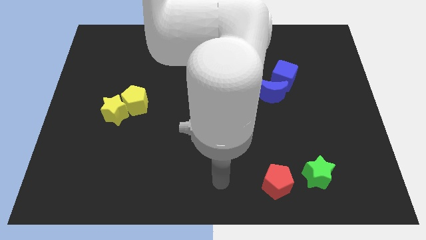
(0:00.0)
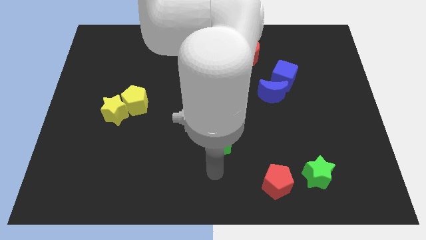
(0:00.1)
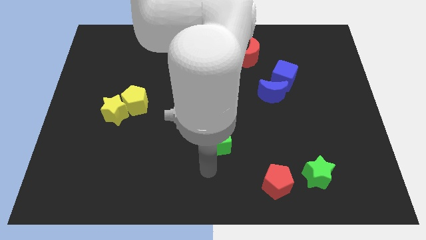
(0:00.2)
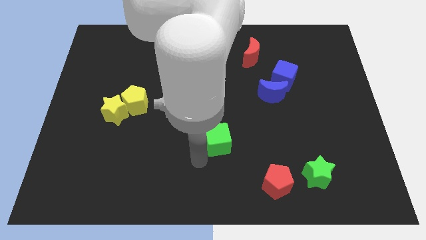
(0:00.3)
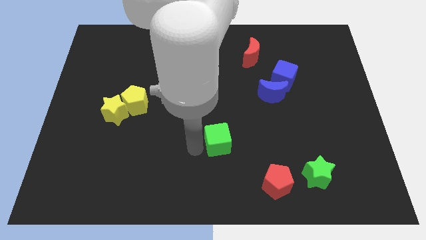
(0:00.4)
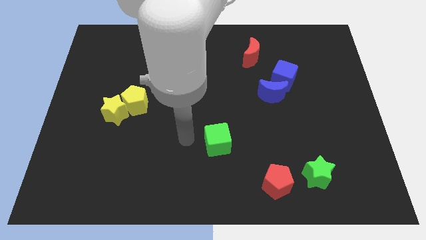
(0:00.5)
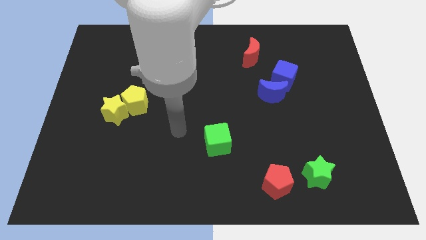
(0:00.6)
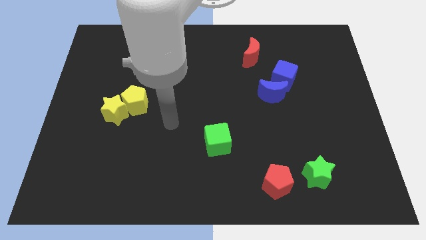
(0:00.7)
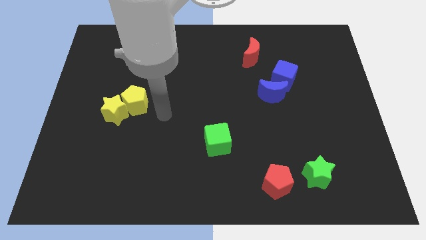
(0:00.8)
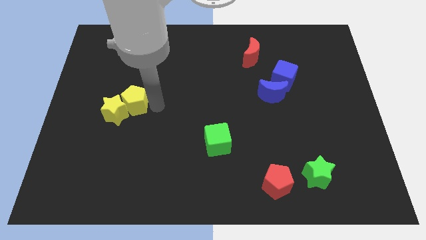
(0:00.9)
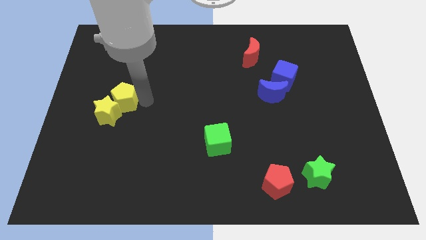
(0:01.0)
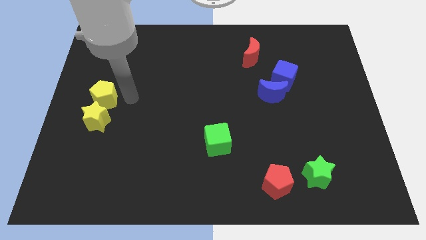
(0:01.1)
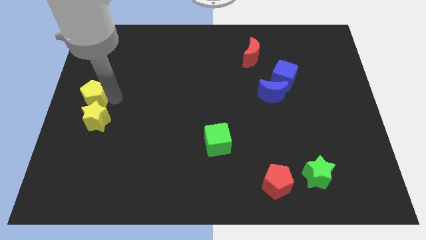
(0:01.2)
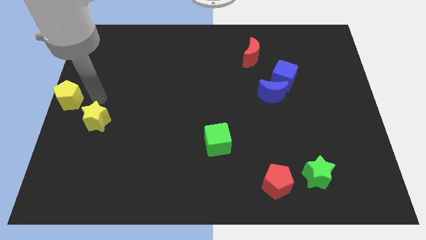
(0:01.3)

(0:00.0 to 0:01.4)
separate the yellow star from the yellow pentagon

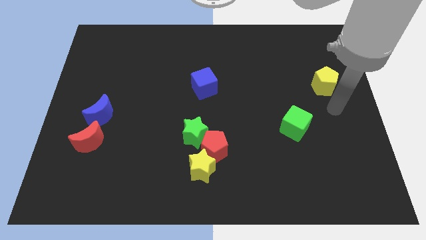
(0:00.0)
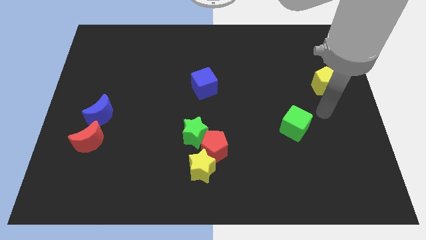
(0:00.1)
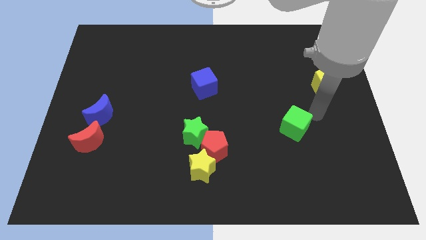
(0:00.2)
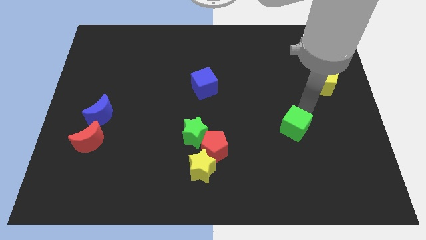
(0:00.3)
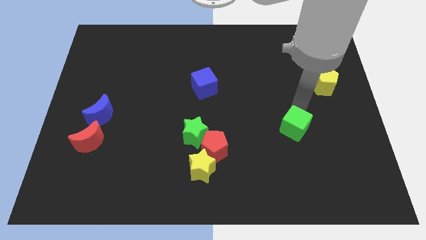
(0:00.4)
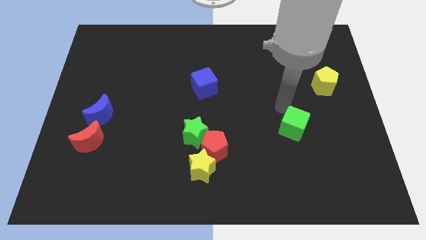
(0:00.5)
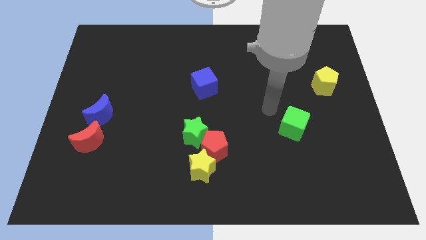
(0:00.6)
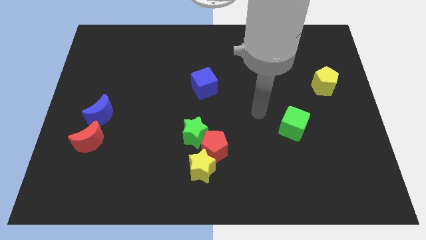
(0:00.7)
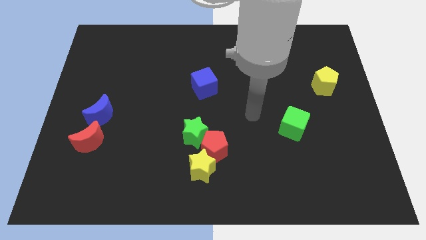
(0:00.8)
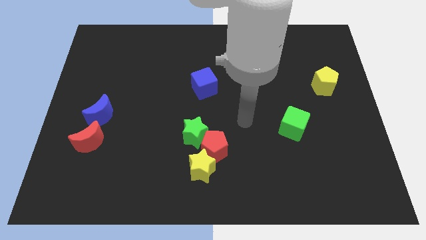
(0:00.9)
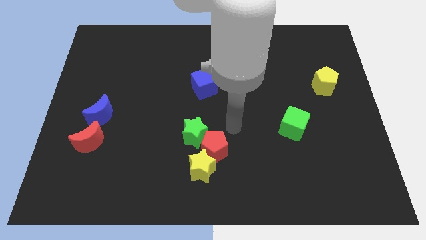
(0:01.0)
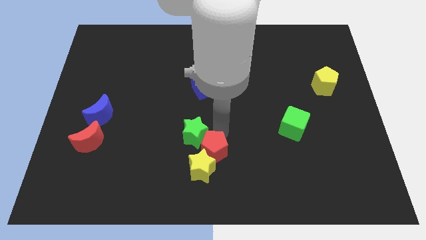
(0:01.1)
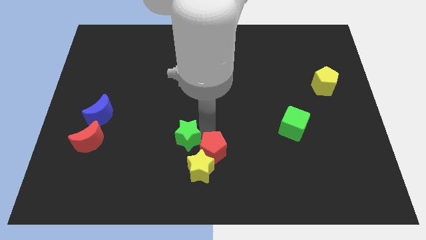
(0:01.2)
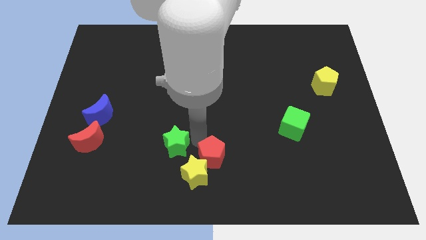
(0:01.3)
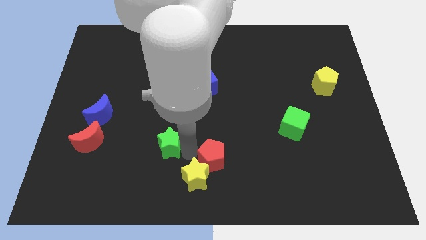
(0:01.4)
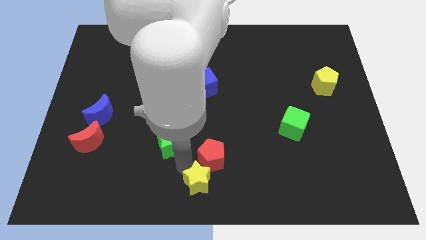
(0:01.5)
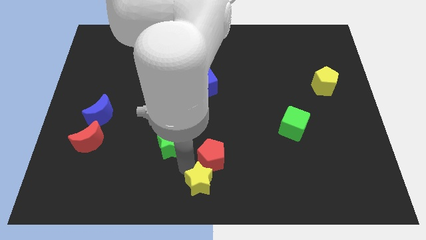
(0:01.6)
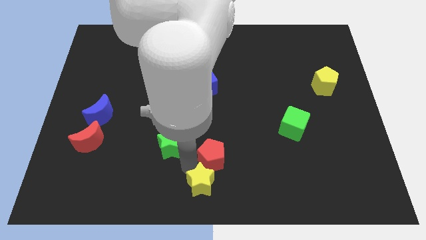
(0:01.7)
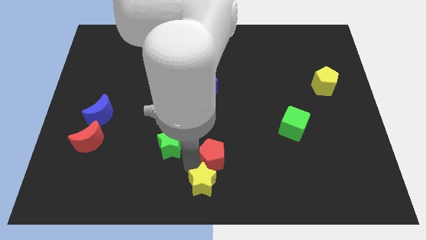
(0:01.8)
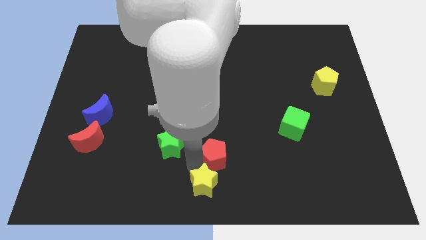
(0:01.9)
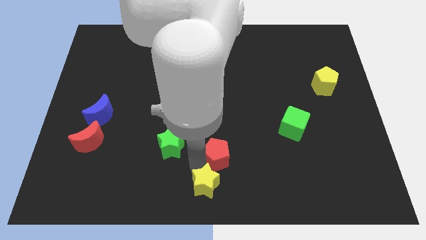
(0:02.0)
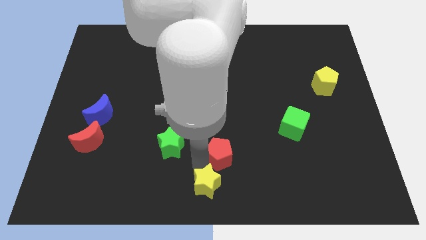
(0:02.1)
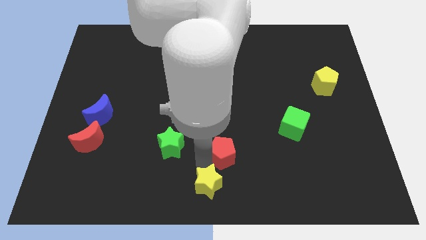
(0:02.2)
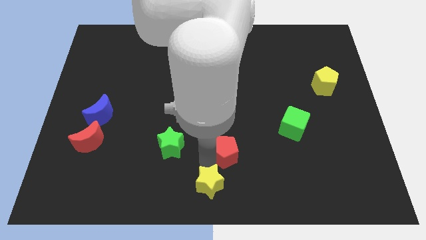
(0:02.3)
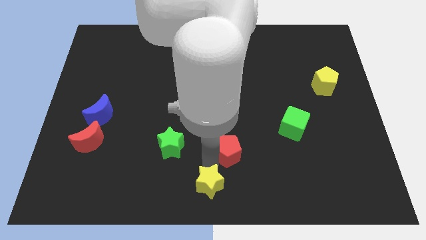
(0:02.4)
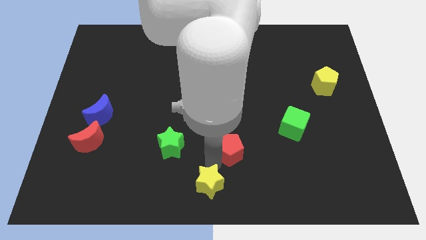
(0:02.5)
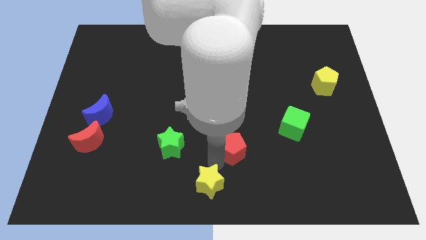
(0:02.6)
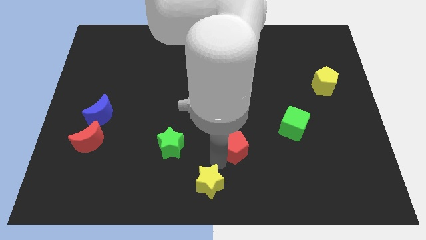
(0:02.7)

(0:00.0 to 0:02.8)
pull the red pentagon apart from the yellow star and green star

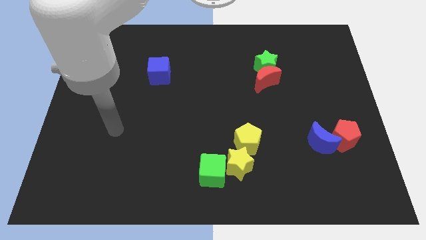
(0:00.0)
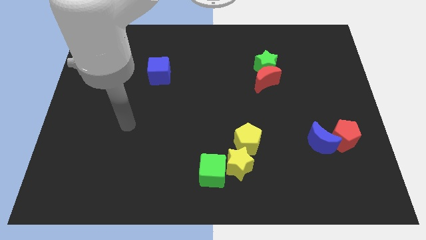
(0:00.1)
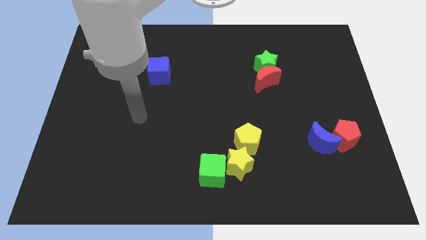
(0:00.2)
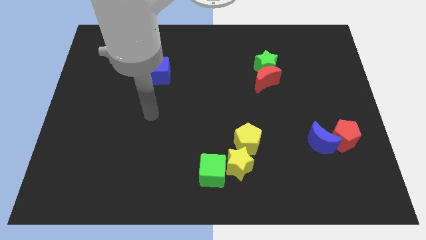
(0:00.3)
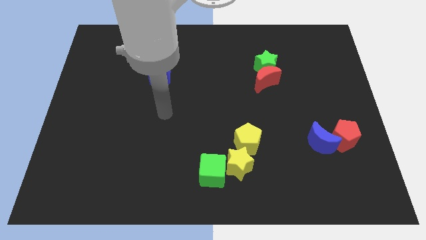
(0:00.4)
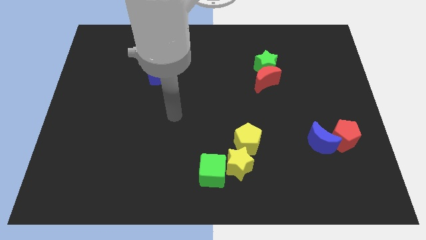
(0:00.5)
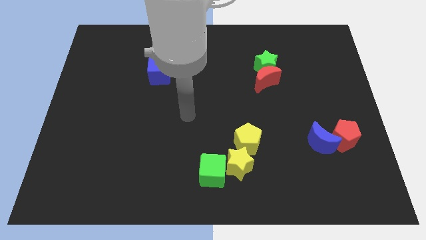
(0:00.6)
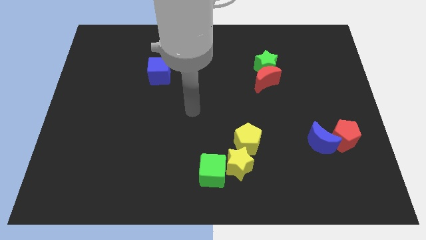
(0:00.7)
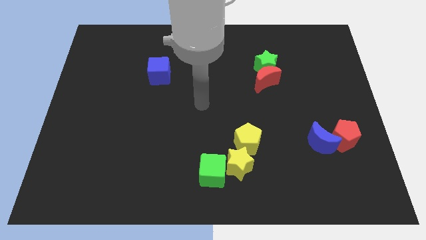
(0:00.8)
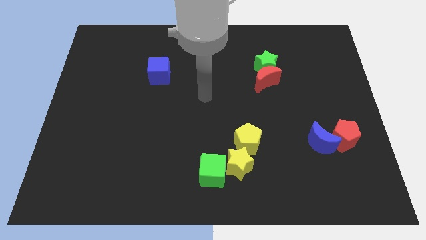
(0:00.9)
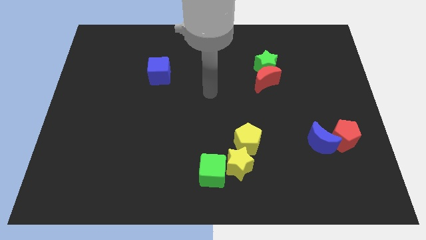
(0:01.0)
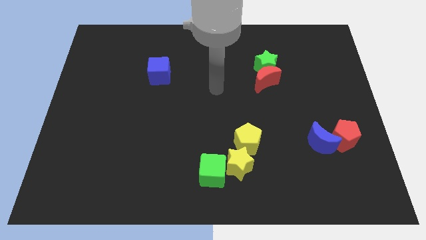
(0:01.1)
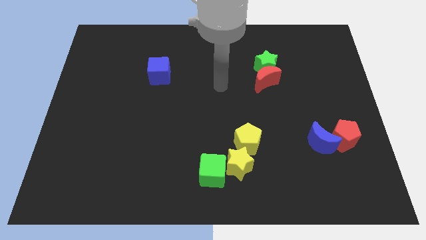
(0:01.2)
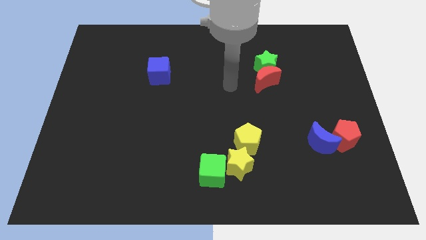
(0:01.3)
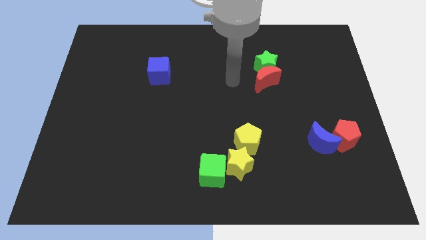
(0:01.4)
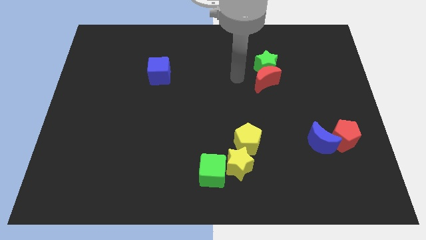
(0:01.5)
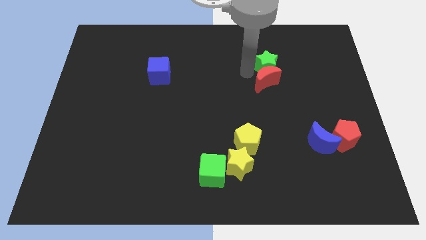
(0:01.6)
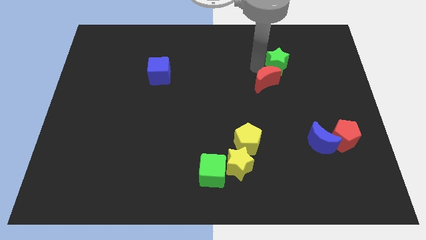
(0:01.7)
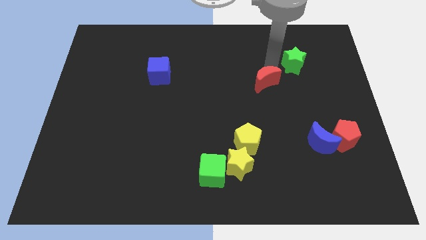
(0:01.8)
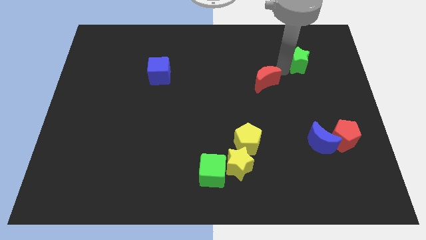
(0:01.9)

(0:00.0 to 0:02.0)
pull the red moon apart from the green star

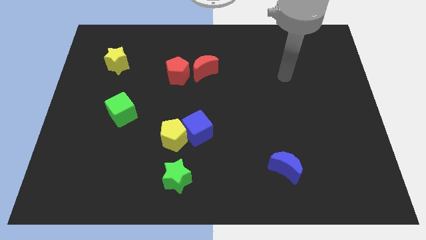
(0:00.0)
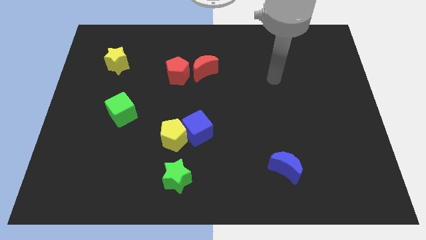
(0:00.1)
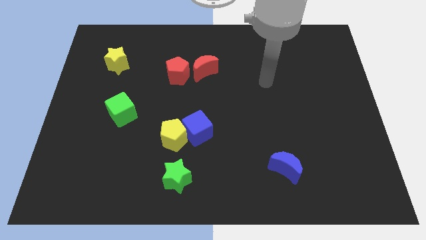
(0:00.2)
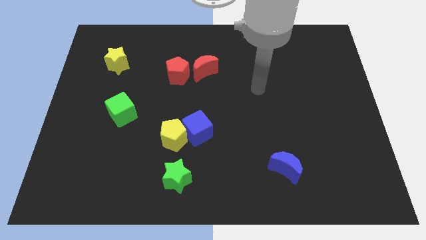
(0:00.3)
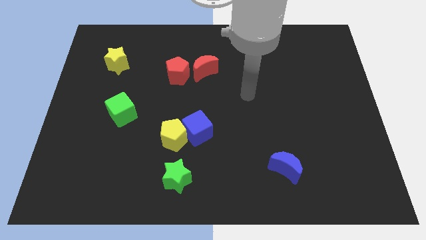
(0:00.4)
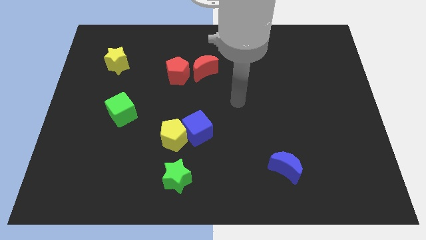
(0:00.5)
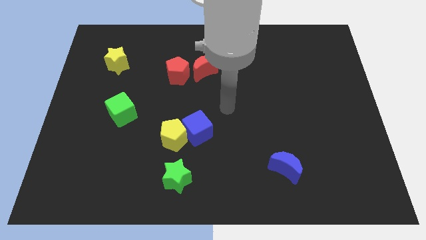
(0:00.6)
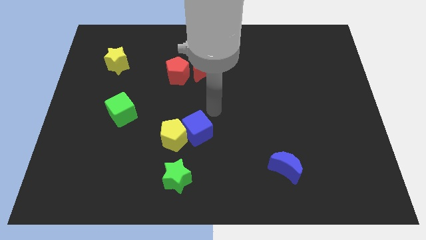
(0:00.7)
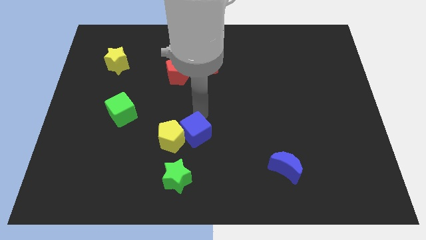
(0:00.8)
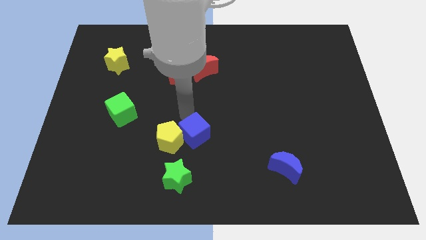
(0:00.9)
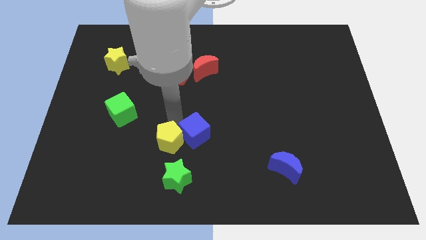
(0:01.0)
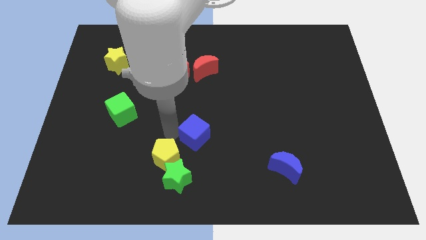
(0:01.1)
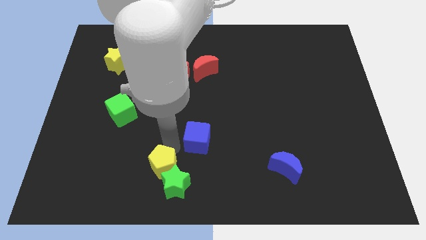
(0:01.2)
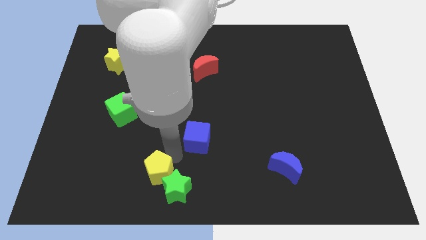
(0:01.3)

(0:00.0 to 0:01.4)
pull the blue cube apart from the yellow pentagon

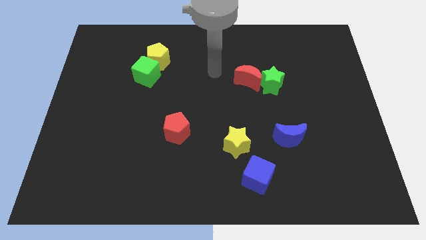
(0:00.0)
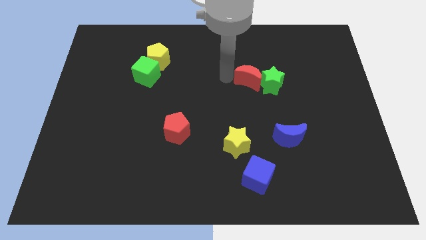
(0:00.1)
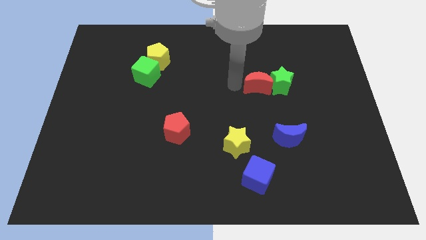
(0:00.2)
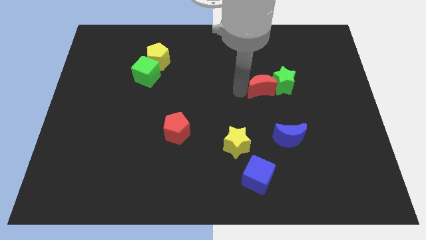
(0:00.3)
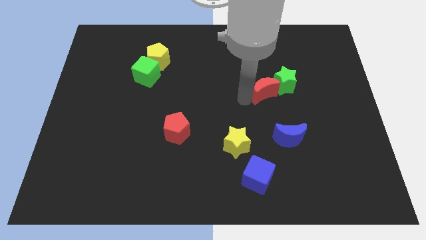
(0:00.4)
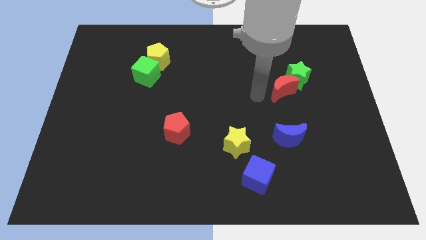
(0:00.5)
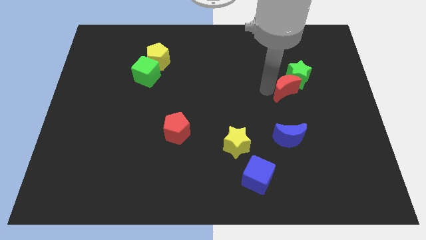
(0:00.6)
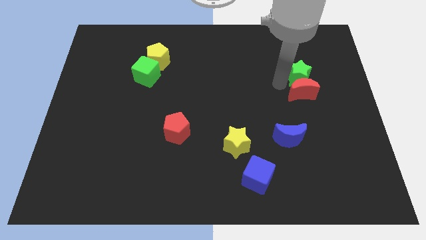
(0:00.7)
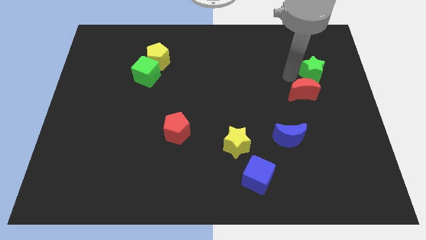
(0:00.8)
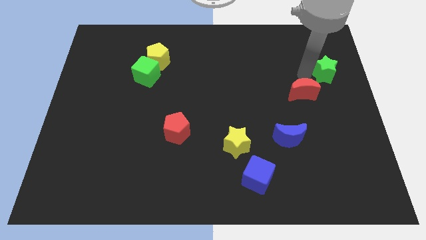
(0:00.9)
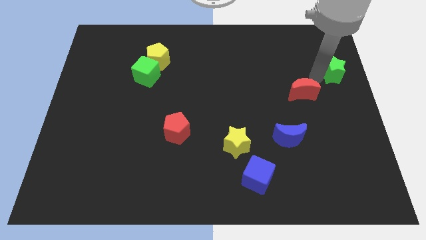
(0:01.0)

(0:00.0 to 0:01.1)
move the red moon away from the green star

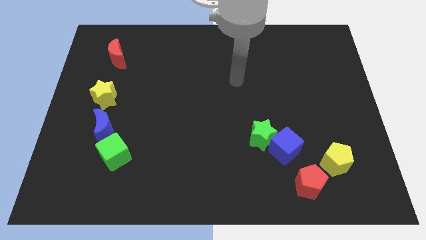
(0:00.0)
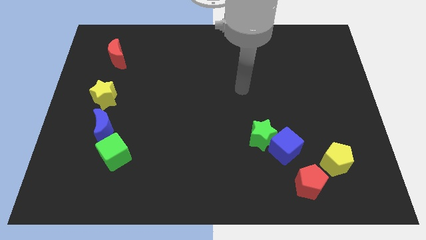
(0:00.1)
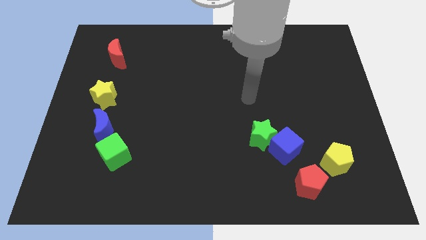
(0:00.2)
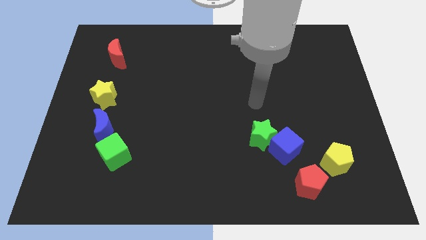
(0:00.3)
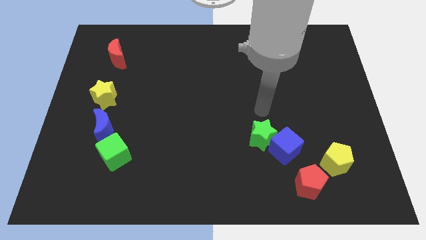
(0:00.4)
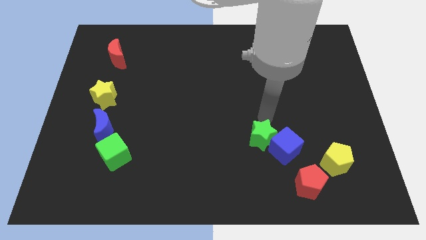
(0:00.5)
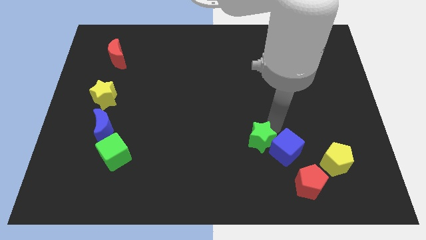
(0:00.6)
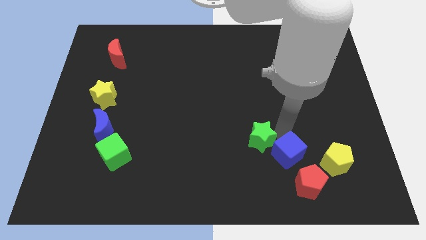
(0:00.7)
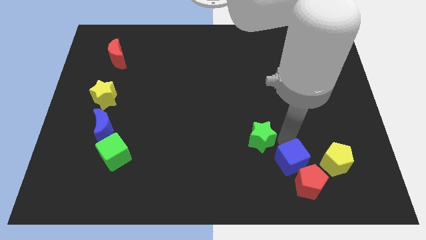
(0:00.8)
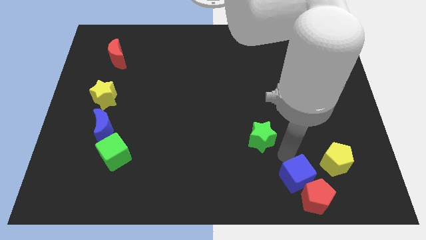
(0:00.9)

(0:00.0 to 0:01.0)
move the green star away from the blue cube
